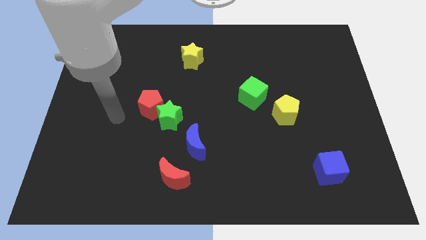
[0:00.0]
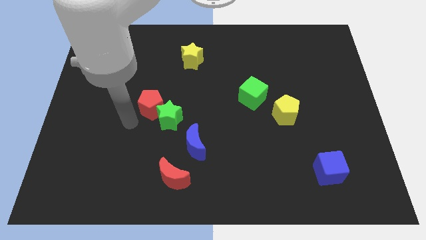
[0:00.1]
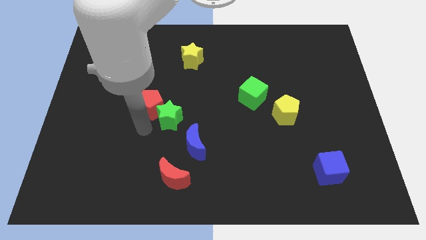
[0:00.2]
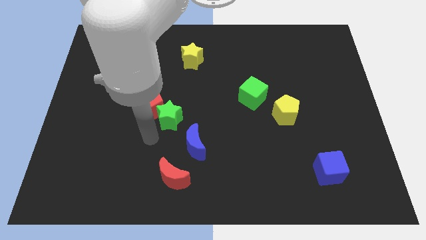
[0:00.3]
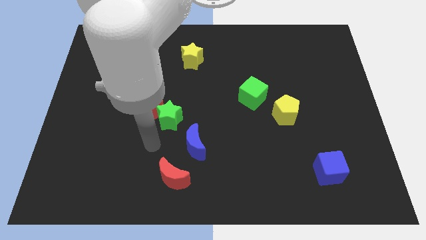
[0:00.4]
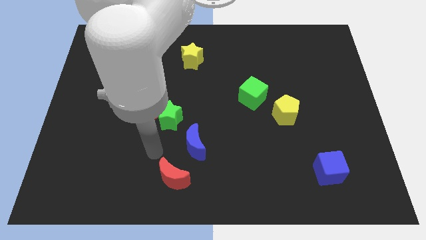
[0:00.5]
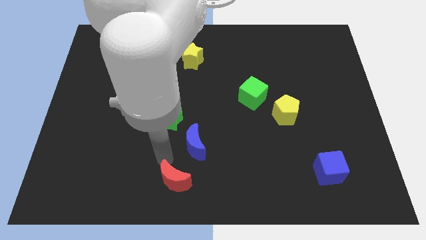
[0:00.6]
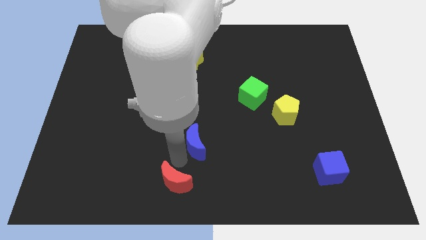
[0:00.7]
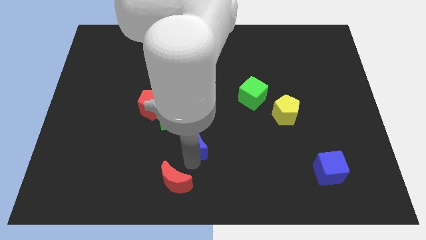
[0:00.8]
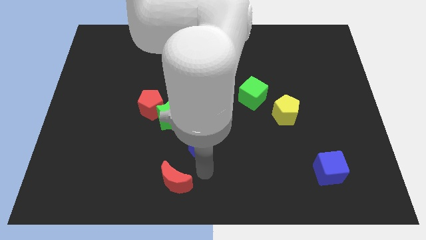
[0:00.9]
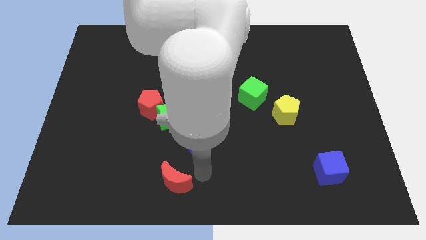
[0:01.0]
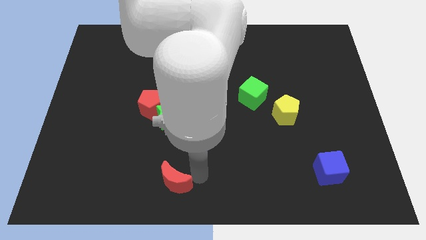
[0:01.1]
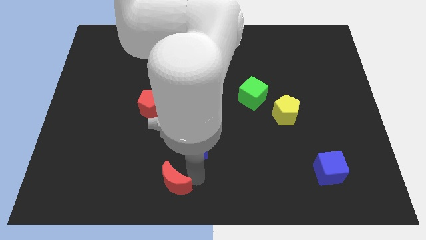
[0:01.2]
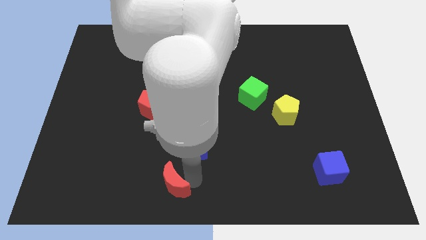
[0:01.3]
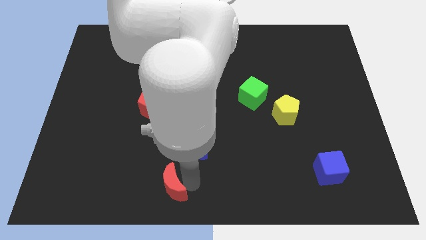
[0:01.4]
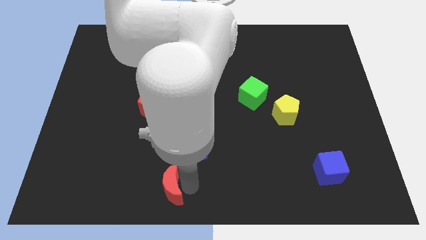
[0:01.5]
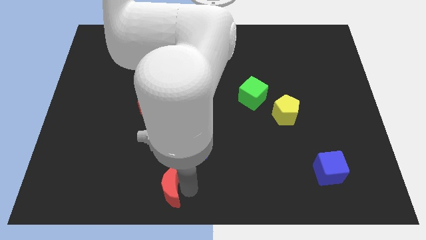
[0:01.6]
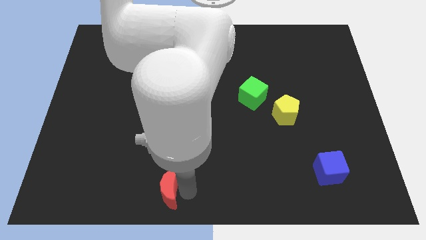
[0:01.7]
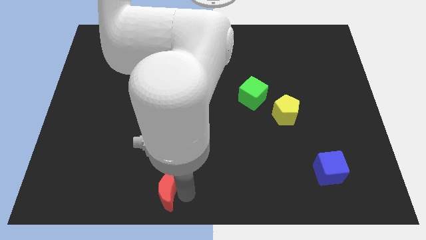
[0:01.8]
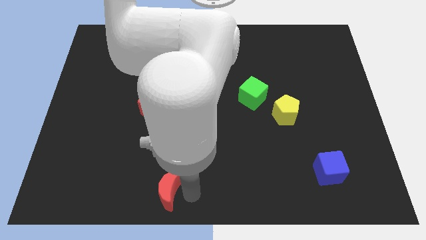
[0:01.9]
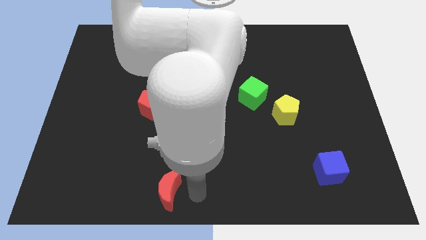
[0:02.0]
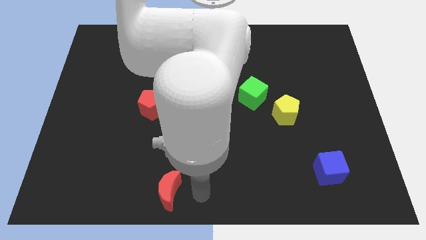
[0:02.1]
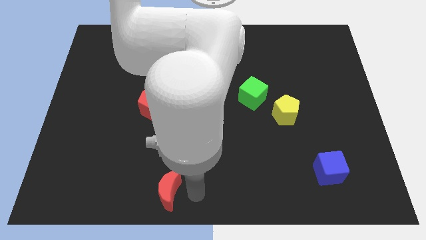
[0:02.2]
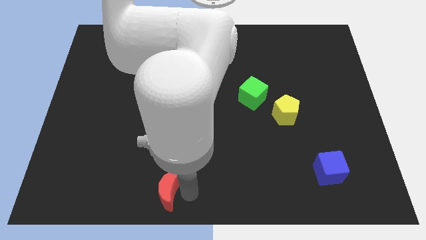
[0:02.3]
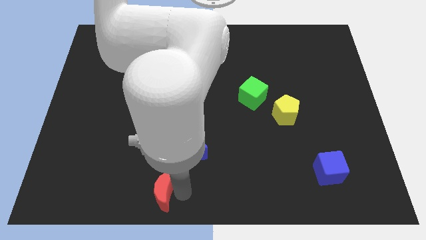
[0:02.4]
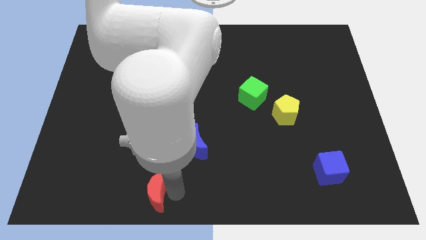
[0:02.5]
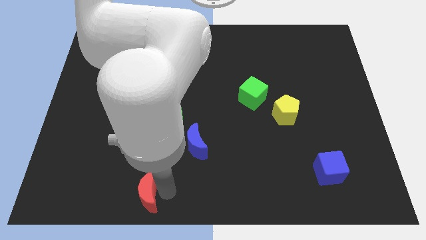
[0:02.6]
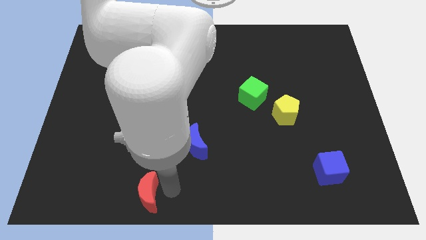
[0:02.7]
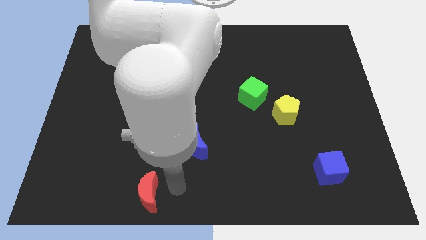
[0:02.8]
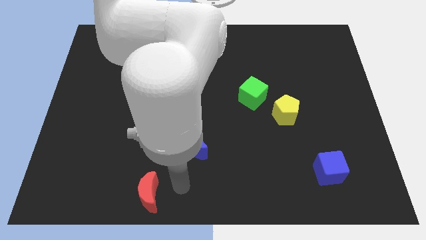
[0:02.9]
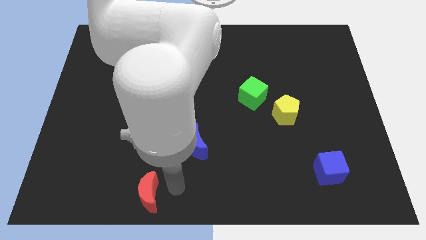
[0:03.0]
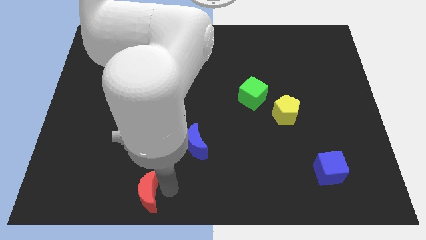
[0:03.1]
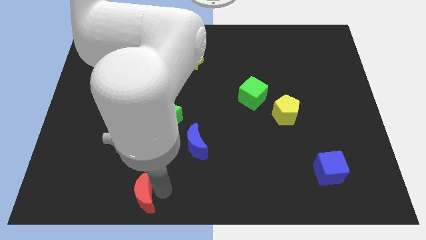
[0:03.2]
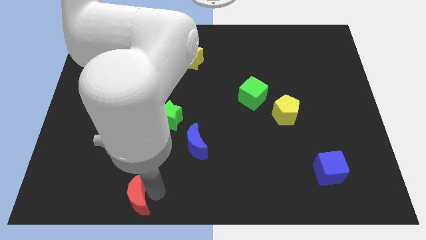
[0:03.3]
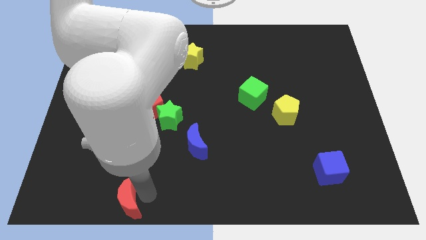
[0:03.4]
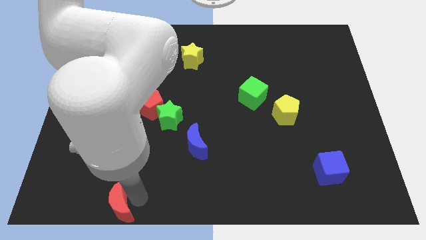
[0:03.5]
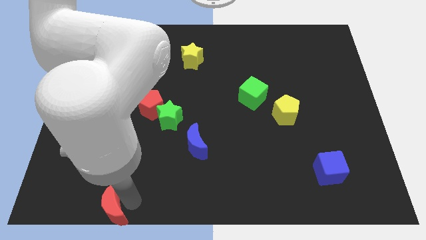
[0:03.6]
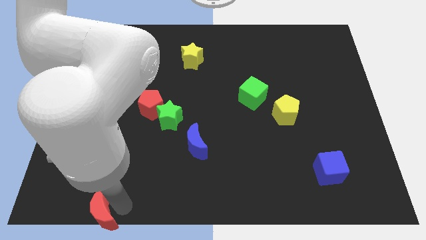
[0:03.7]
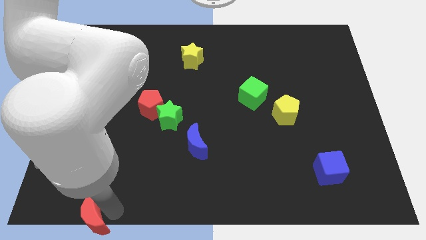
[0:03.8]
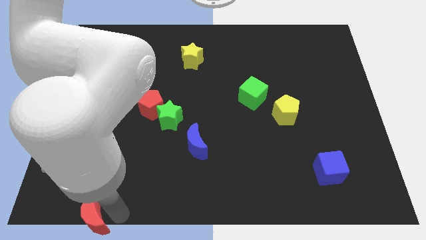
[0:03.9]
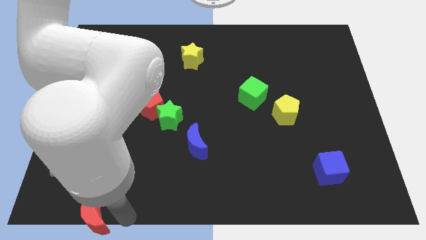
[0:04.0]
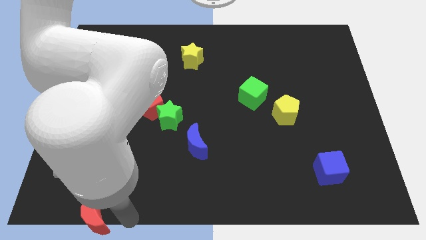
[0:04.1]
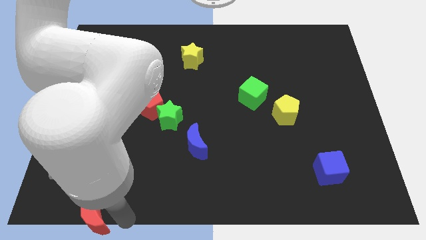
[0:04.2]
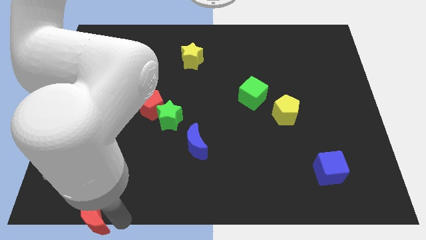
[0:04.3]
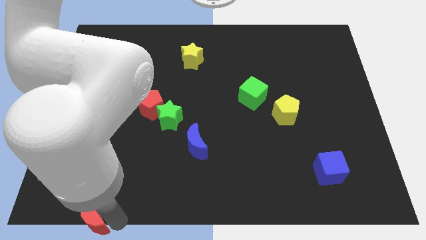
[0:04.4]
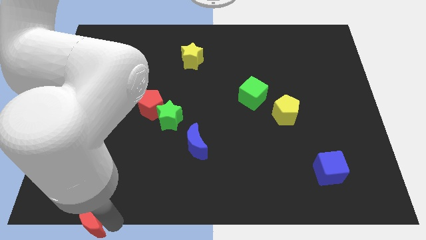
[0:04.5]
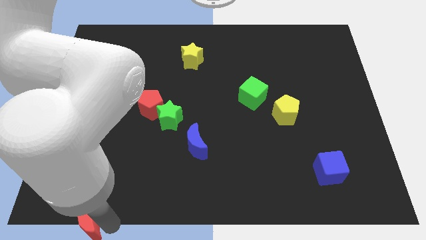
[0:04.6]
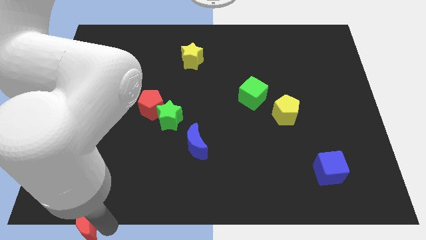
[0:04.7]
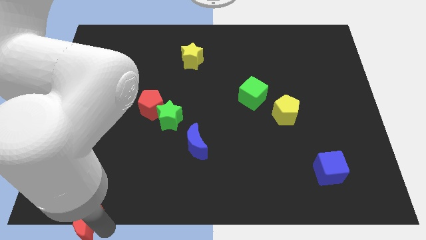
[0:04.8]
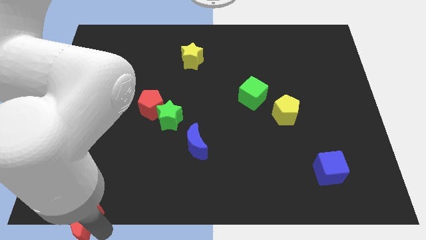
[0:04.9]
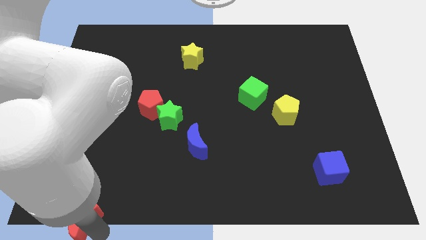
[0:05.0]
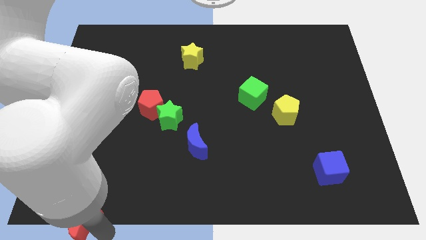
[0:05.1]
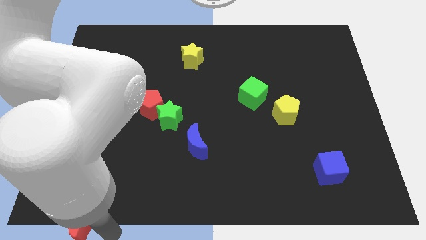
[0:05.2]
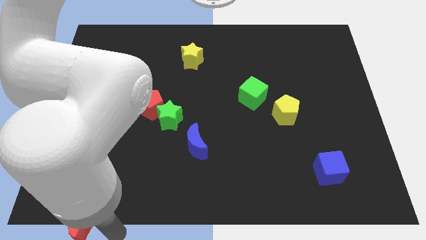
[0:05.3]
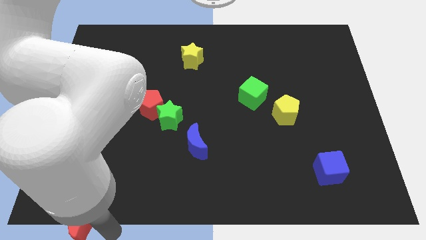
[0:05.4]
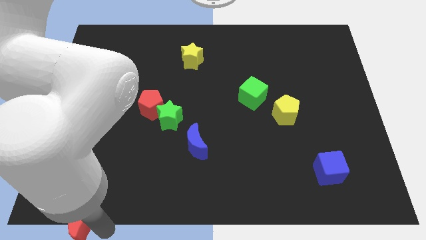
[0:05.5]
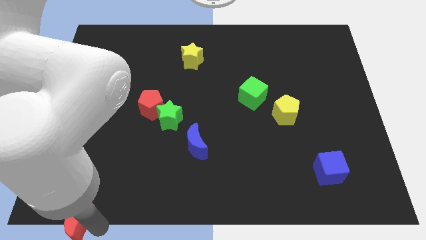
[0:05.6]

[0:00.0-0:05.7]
push the red moon to the lower left corner
